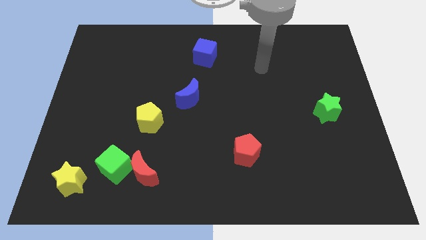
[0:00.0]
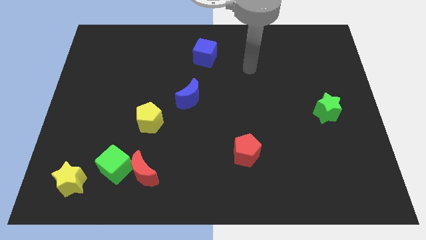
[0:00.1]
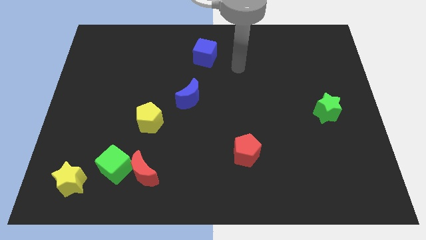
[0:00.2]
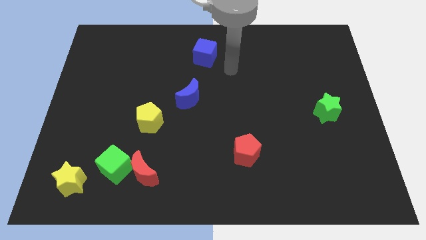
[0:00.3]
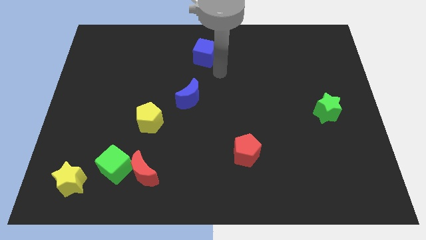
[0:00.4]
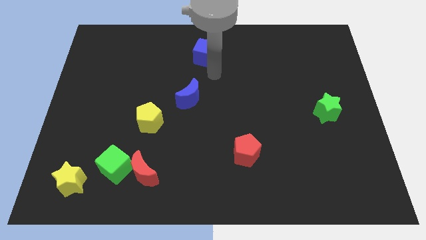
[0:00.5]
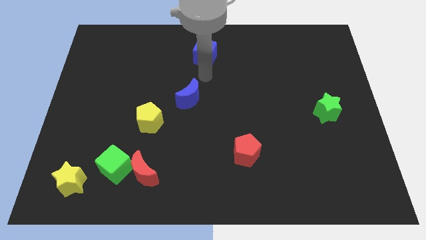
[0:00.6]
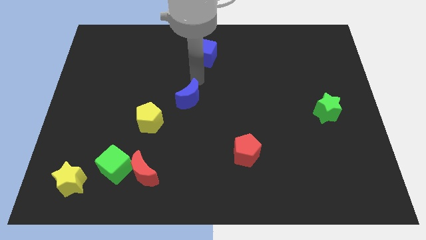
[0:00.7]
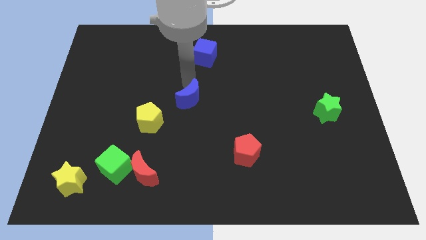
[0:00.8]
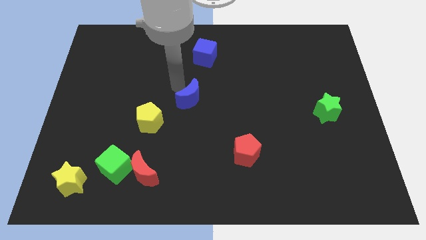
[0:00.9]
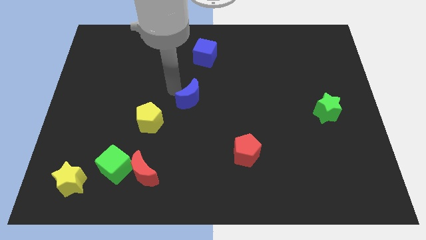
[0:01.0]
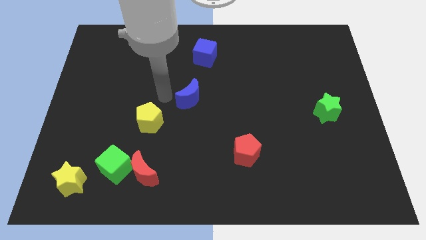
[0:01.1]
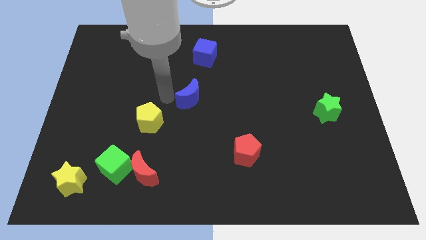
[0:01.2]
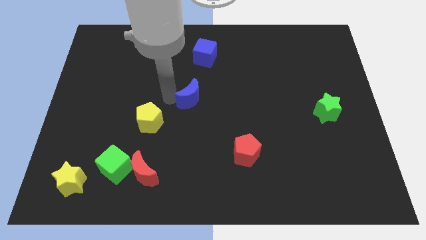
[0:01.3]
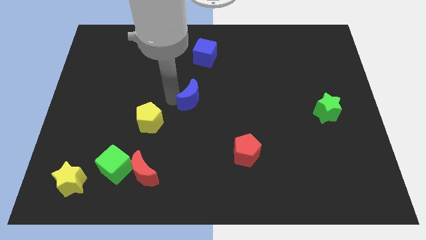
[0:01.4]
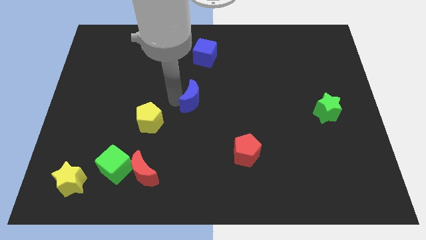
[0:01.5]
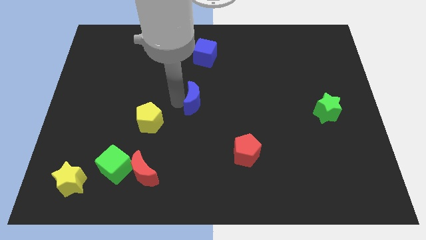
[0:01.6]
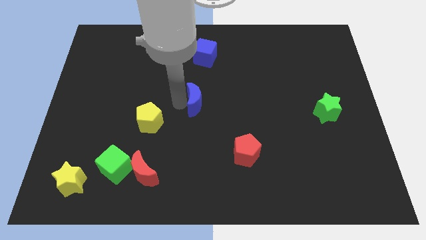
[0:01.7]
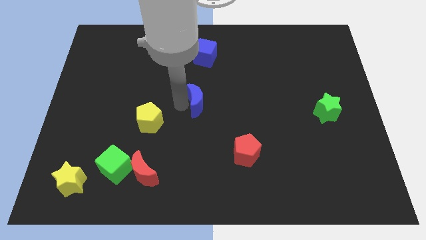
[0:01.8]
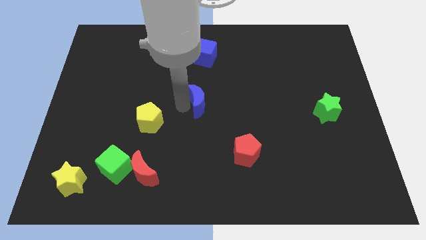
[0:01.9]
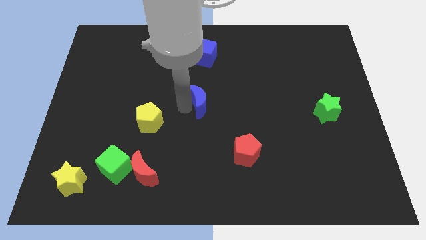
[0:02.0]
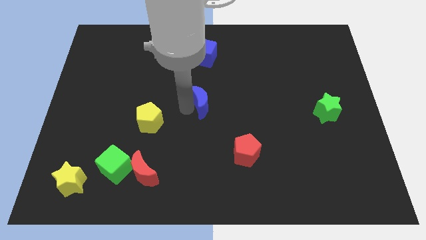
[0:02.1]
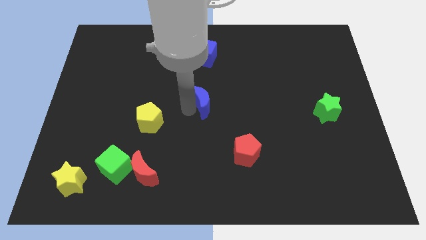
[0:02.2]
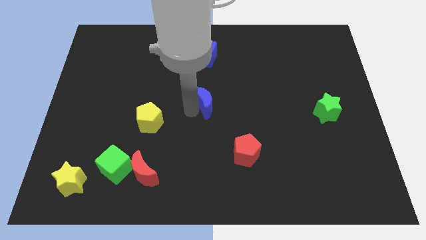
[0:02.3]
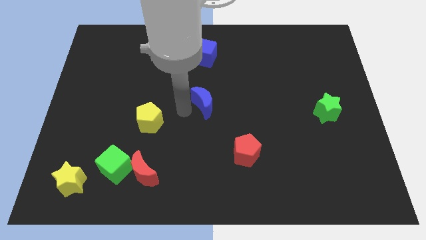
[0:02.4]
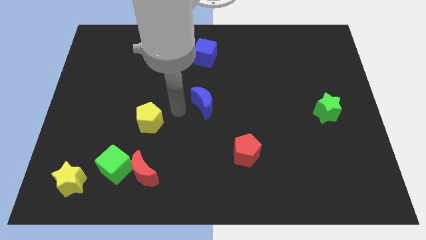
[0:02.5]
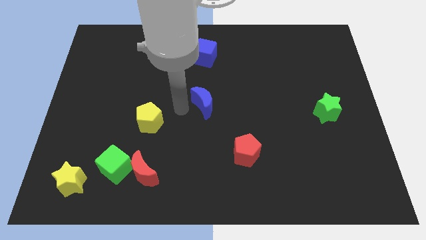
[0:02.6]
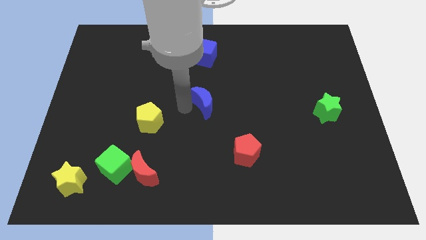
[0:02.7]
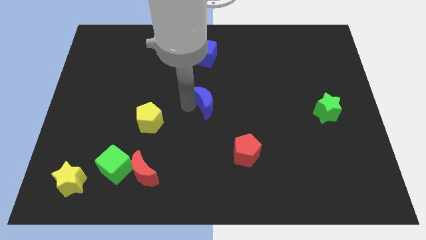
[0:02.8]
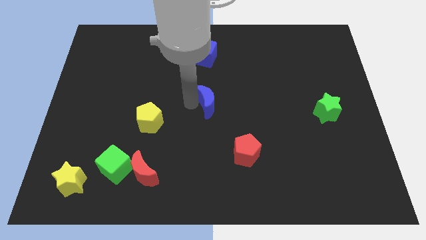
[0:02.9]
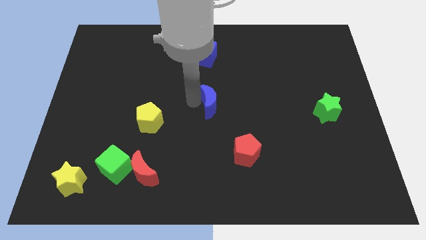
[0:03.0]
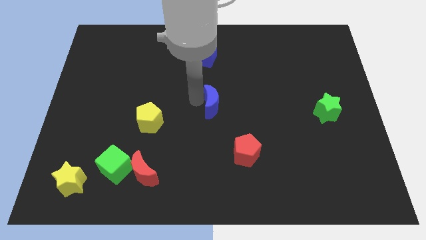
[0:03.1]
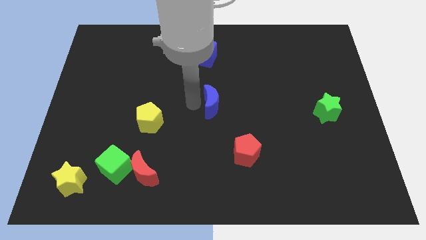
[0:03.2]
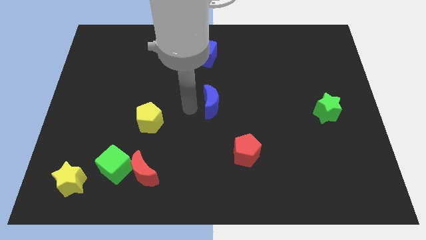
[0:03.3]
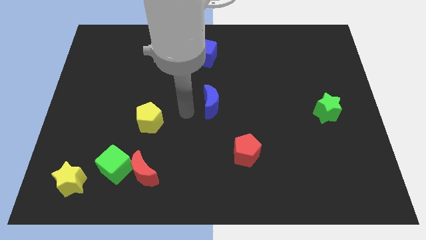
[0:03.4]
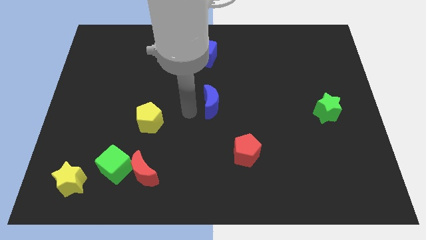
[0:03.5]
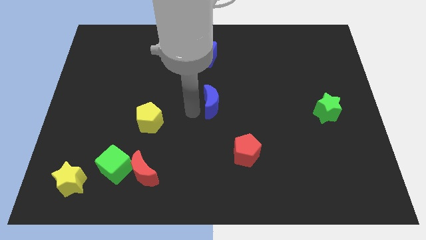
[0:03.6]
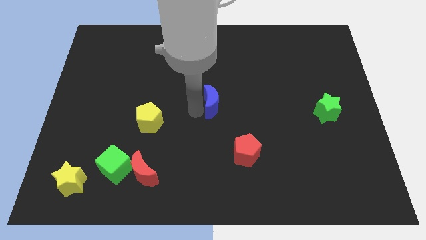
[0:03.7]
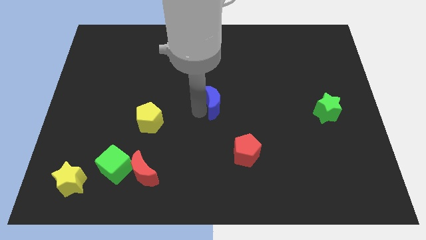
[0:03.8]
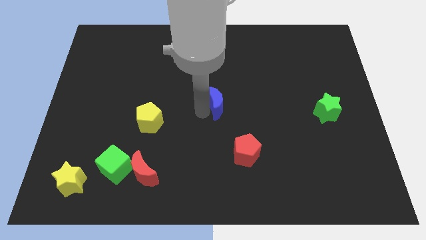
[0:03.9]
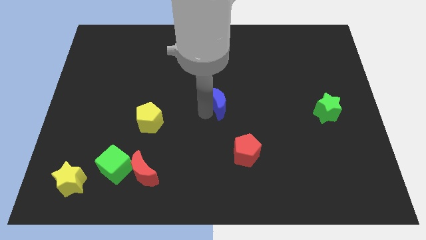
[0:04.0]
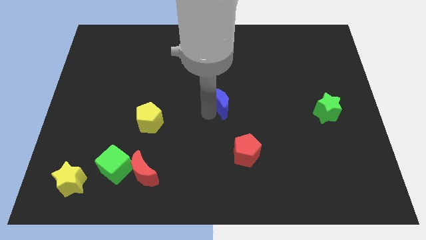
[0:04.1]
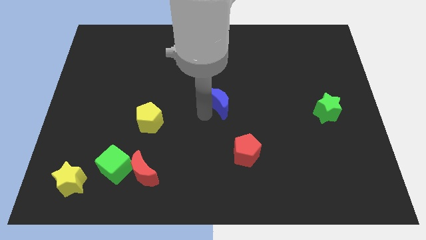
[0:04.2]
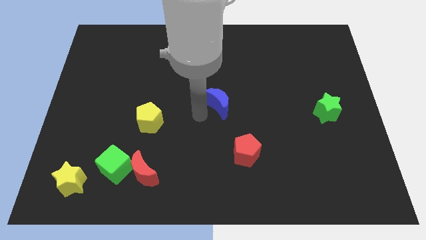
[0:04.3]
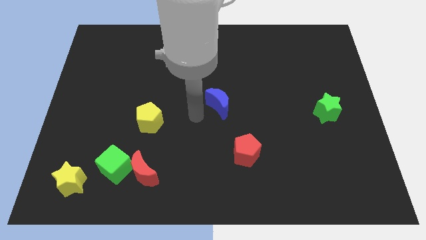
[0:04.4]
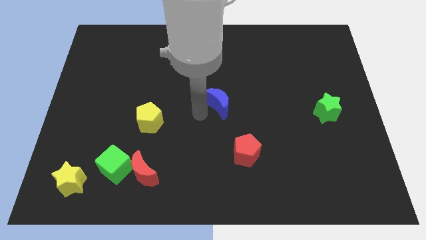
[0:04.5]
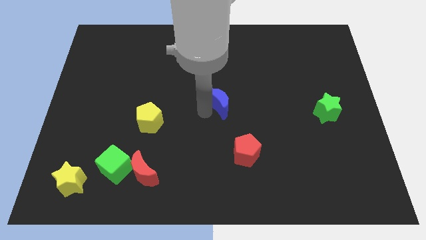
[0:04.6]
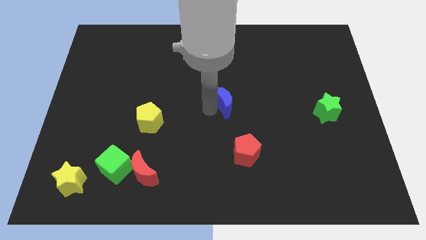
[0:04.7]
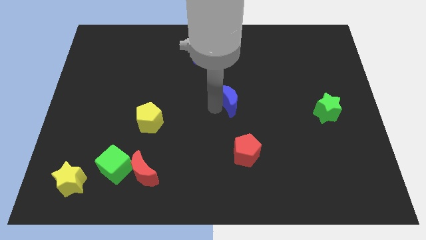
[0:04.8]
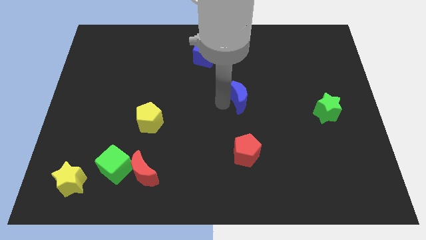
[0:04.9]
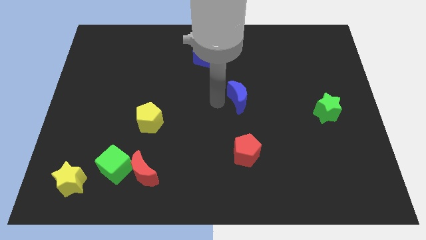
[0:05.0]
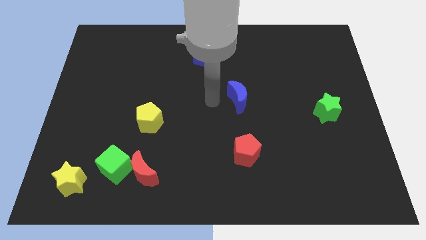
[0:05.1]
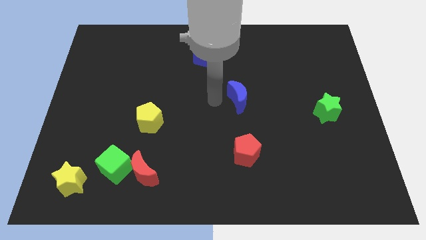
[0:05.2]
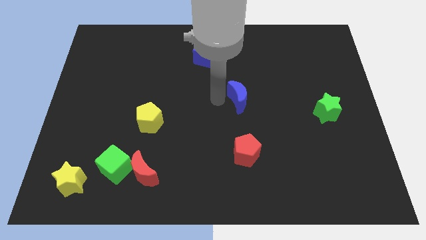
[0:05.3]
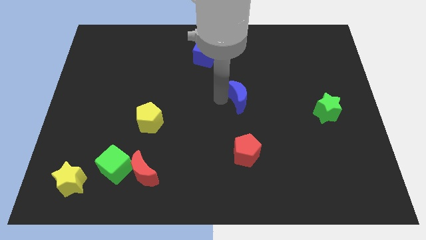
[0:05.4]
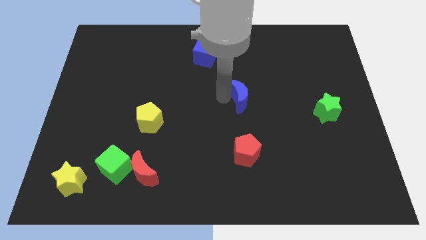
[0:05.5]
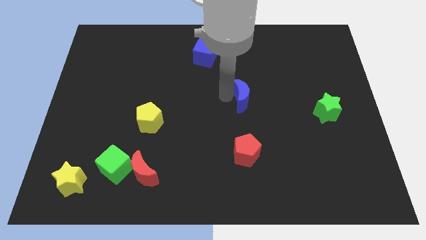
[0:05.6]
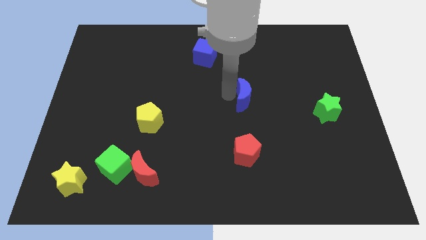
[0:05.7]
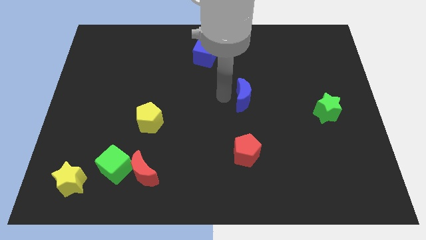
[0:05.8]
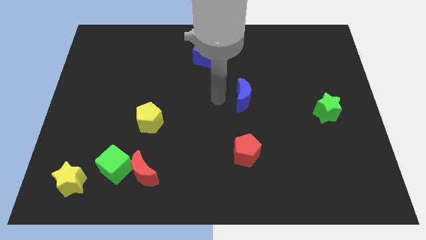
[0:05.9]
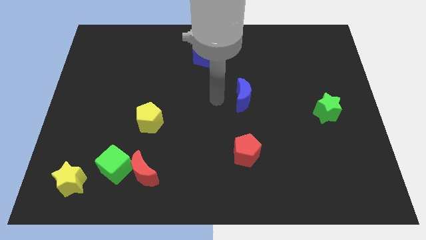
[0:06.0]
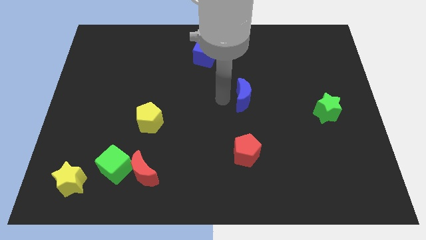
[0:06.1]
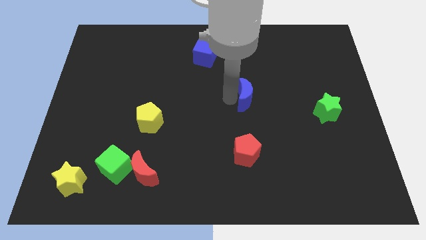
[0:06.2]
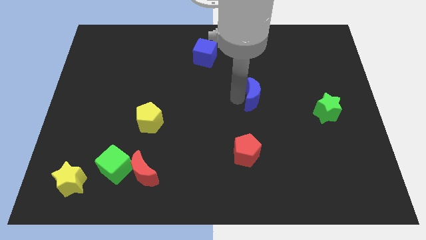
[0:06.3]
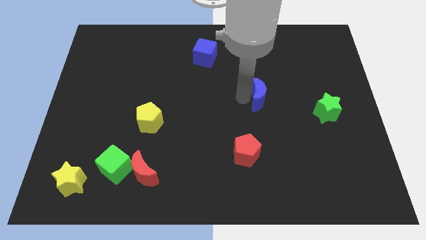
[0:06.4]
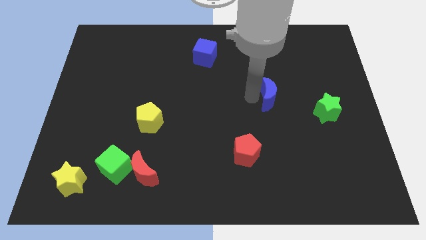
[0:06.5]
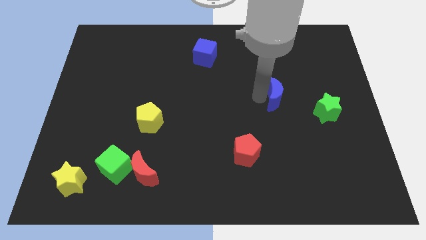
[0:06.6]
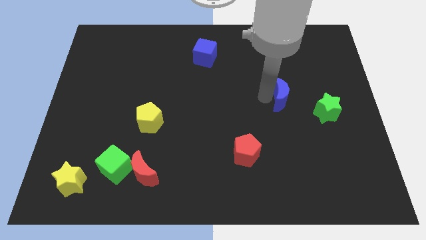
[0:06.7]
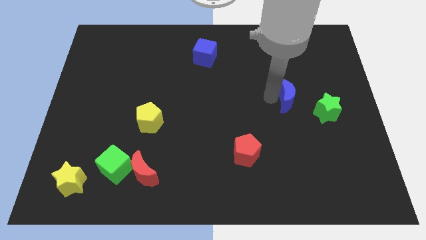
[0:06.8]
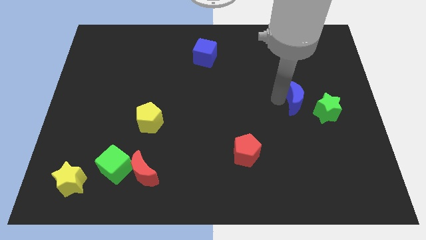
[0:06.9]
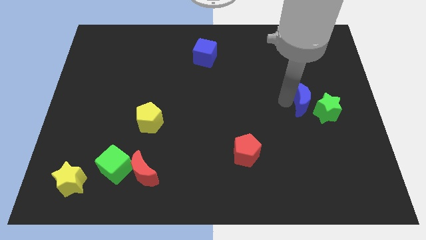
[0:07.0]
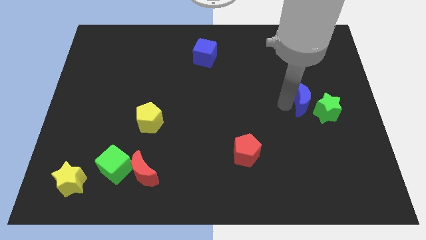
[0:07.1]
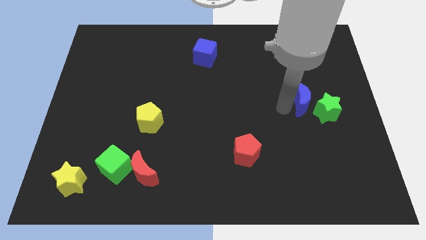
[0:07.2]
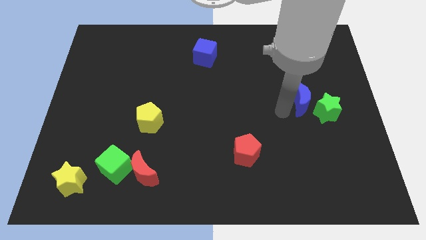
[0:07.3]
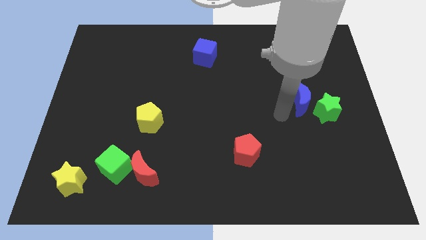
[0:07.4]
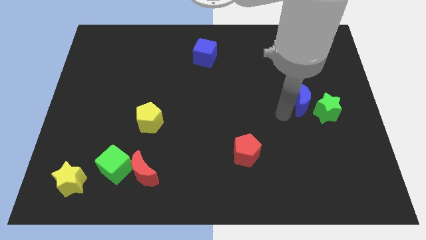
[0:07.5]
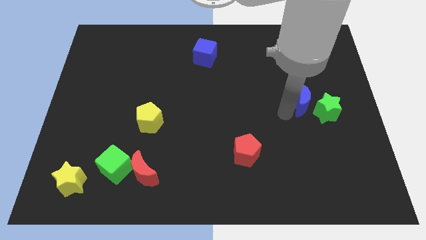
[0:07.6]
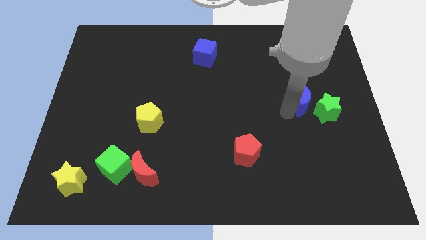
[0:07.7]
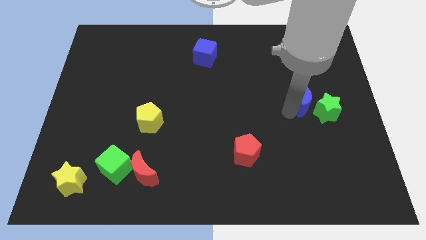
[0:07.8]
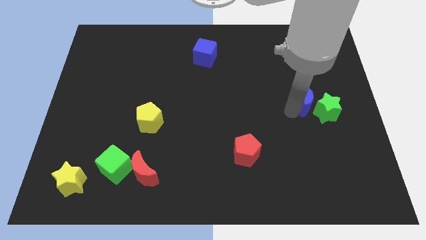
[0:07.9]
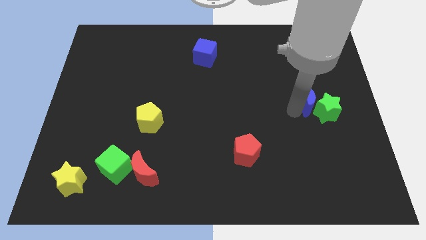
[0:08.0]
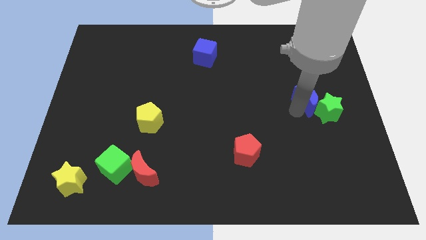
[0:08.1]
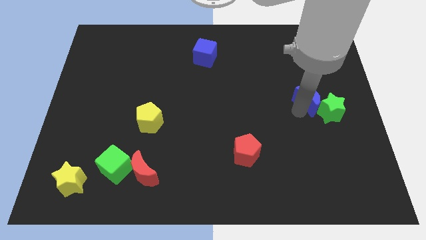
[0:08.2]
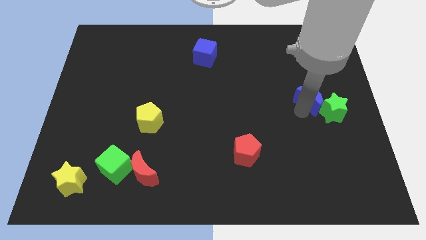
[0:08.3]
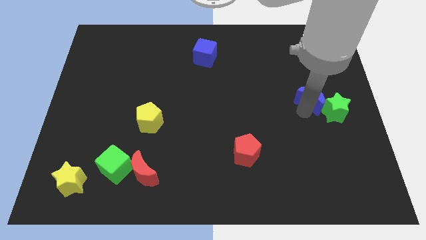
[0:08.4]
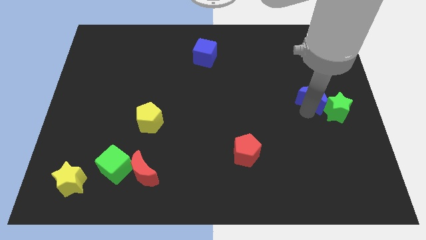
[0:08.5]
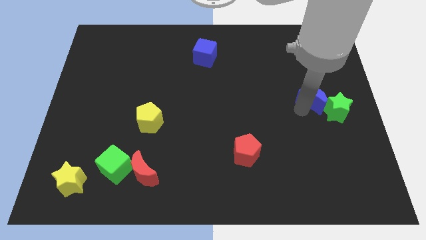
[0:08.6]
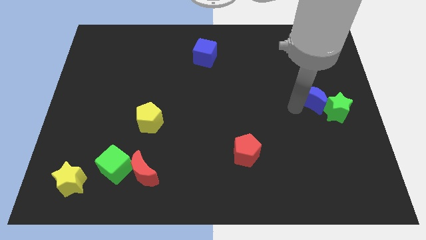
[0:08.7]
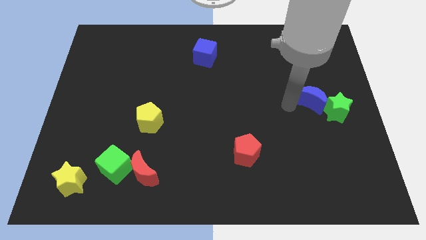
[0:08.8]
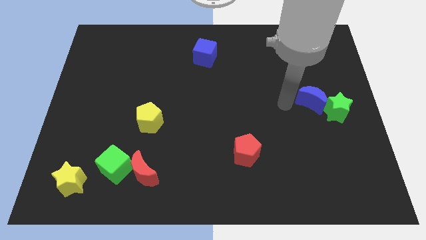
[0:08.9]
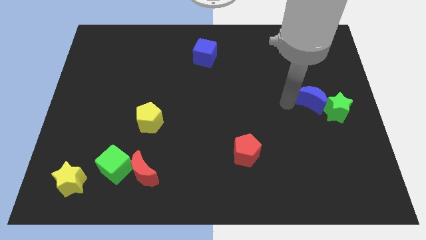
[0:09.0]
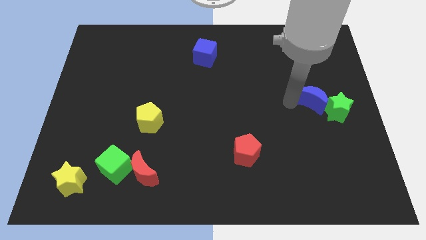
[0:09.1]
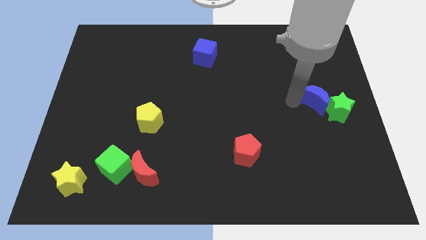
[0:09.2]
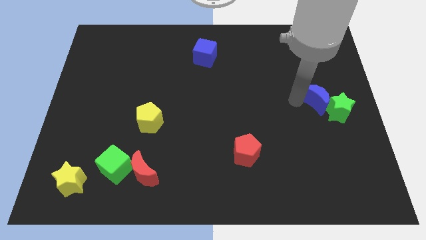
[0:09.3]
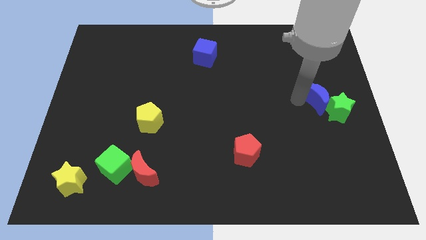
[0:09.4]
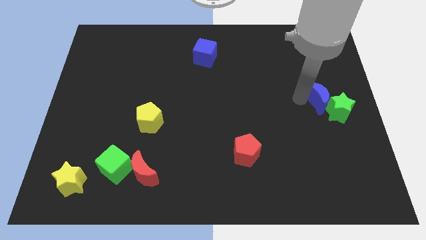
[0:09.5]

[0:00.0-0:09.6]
push the blue moon to the right side of the board
